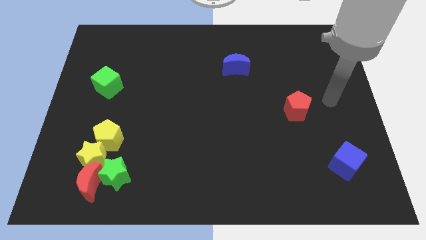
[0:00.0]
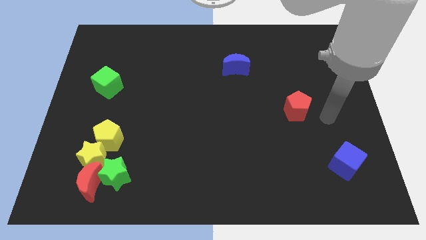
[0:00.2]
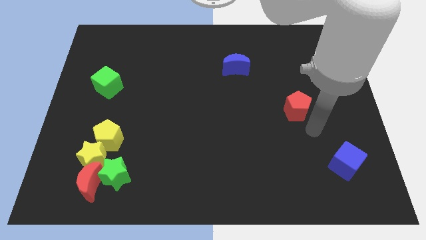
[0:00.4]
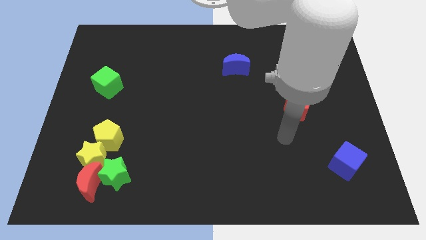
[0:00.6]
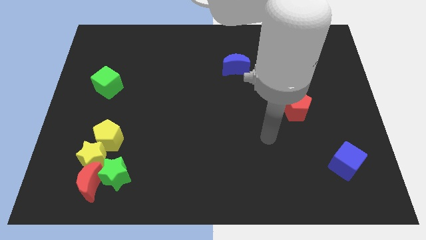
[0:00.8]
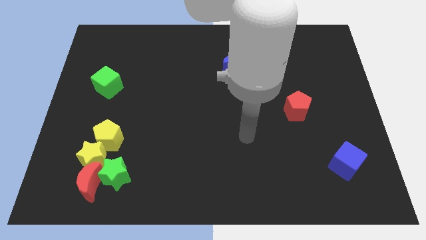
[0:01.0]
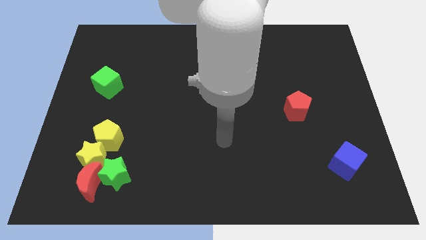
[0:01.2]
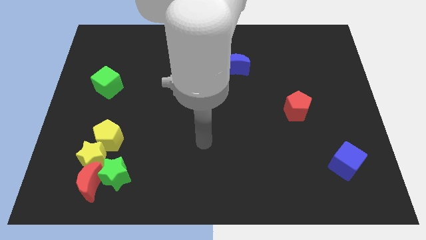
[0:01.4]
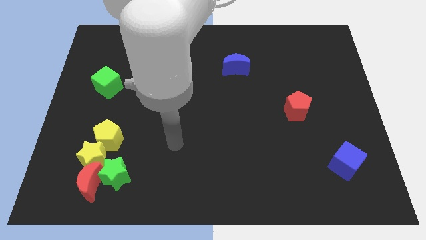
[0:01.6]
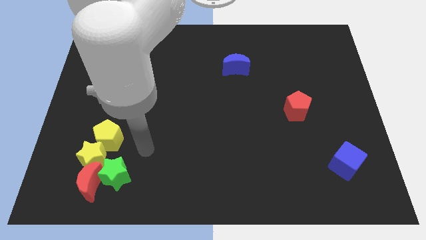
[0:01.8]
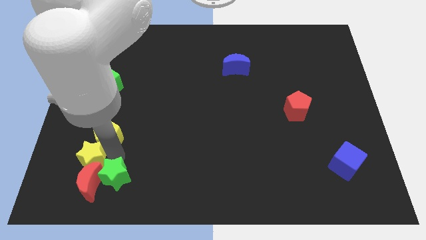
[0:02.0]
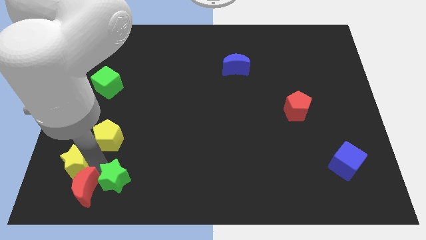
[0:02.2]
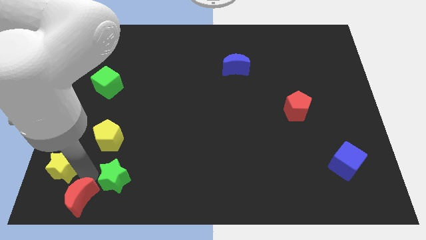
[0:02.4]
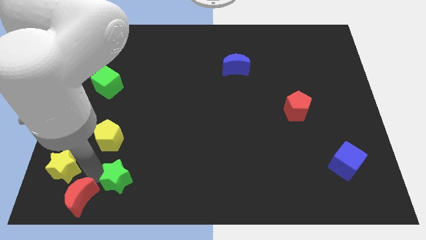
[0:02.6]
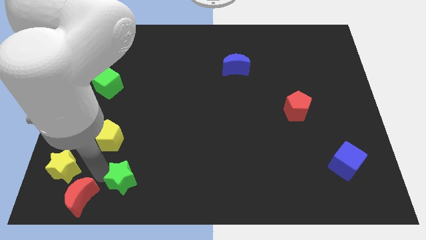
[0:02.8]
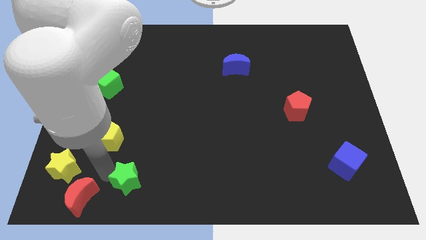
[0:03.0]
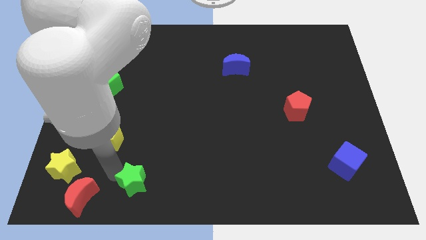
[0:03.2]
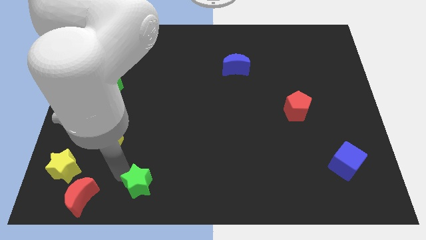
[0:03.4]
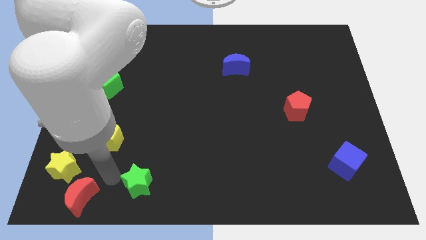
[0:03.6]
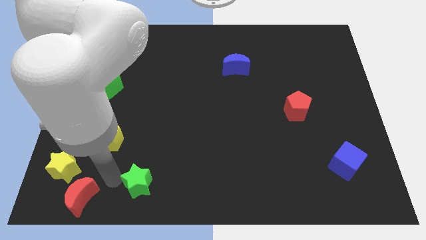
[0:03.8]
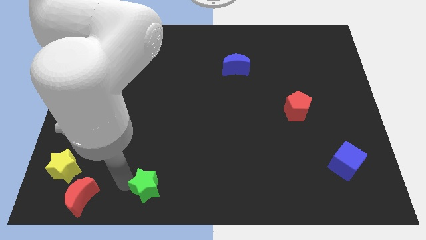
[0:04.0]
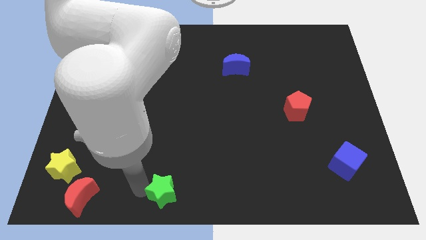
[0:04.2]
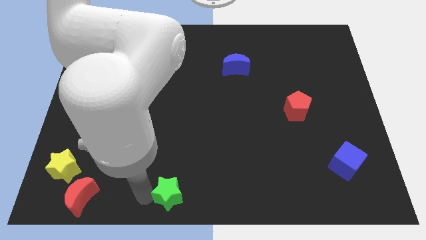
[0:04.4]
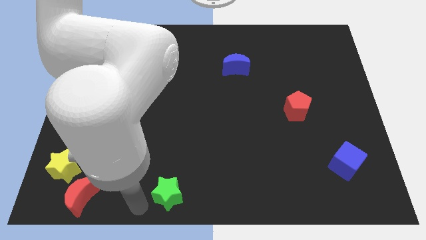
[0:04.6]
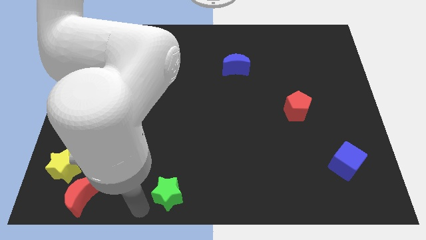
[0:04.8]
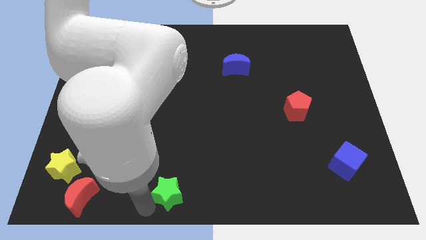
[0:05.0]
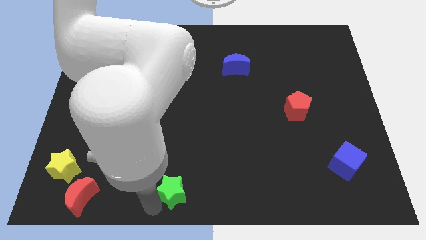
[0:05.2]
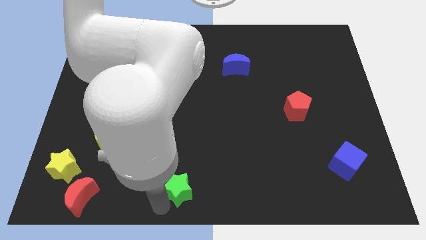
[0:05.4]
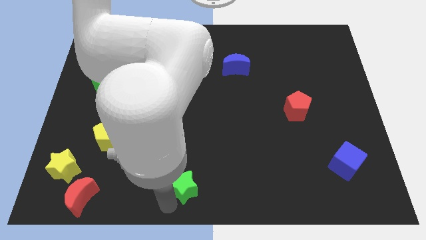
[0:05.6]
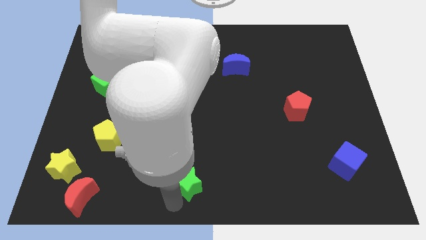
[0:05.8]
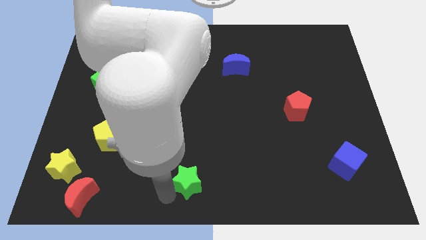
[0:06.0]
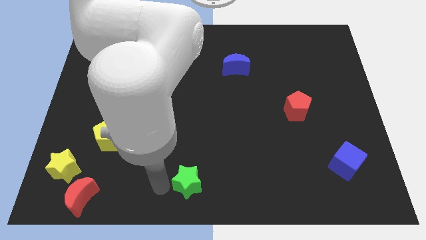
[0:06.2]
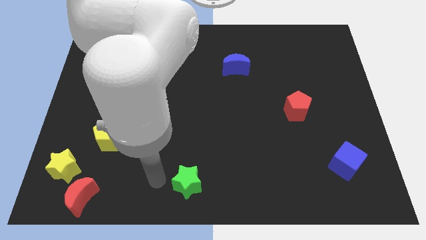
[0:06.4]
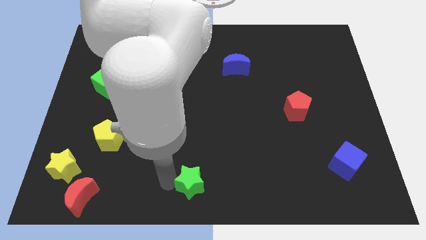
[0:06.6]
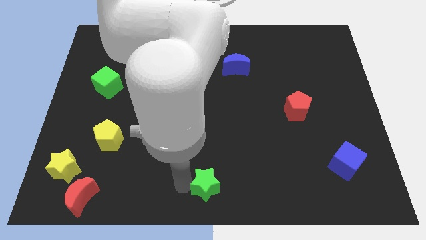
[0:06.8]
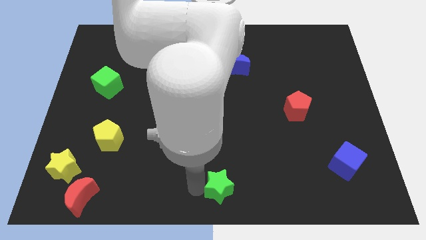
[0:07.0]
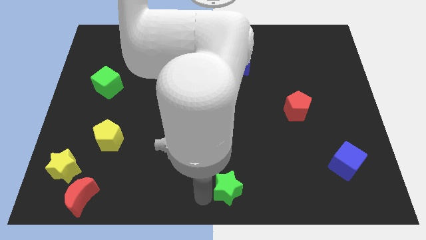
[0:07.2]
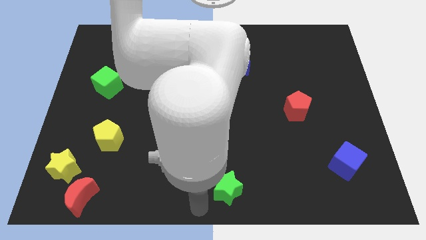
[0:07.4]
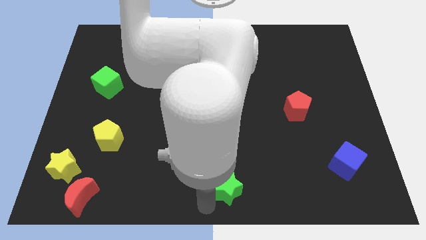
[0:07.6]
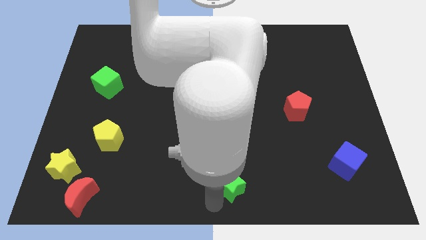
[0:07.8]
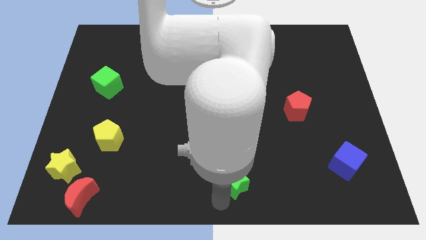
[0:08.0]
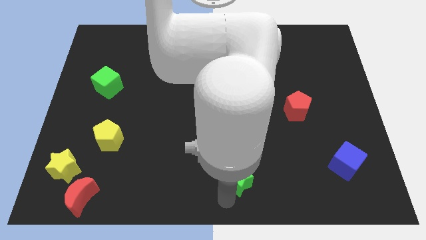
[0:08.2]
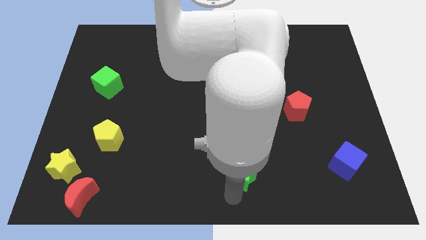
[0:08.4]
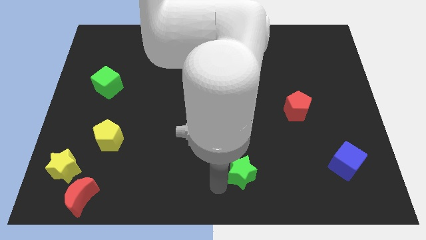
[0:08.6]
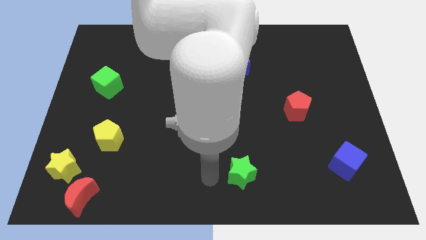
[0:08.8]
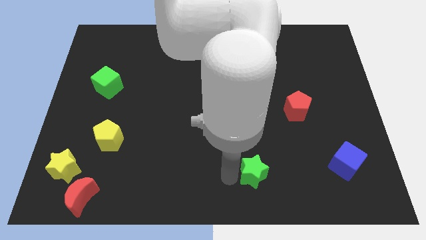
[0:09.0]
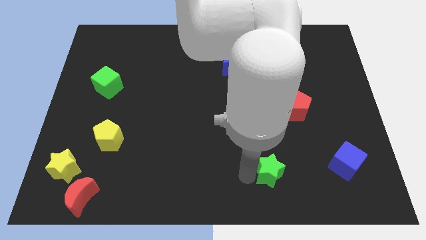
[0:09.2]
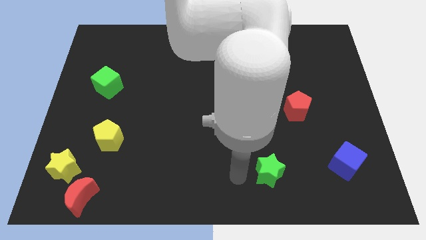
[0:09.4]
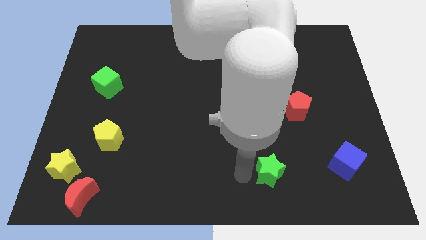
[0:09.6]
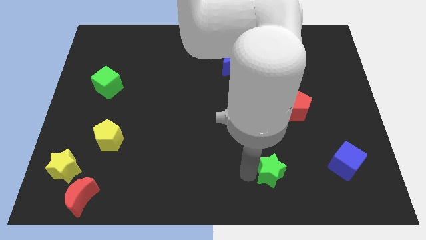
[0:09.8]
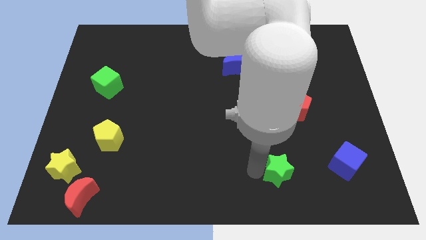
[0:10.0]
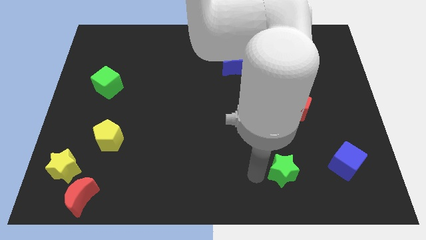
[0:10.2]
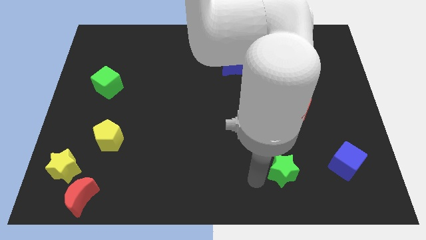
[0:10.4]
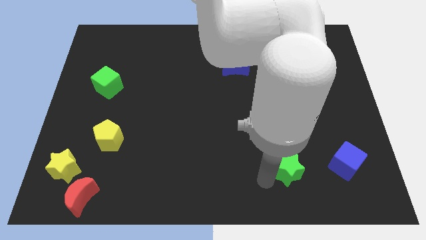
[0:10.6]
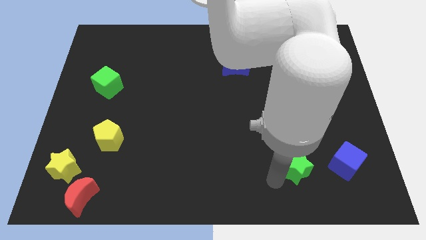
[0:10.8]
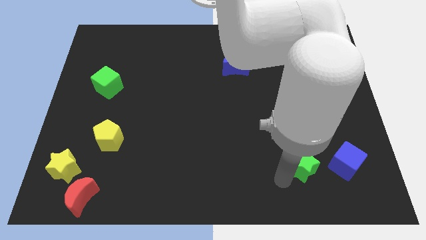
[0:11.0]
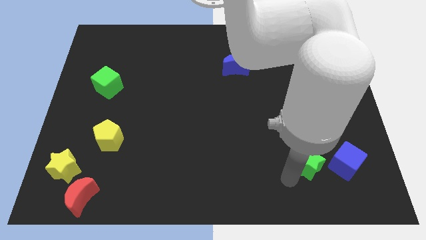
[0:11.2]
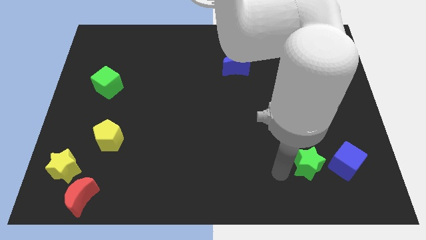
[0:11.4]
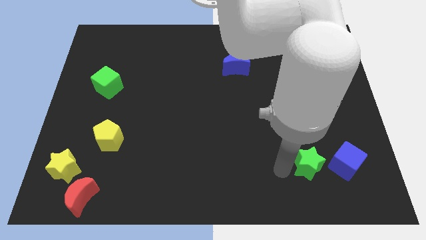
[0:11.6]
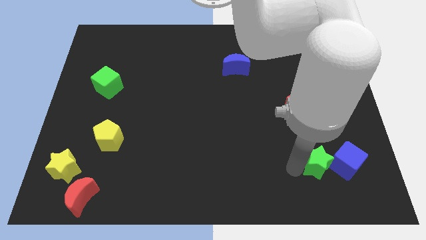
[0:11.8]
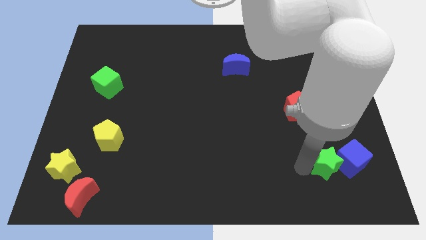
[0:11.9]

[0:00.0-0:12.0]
move the green star next to the blue cube

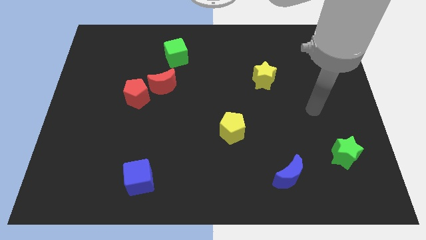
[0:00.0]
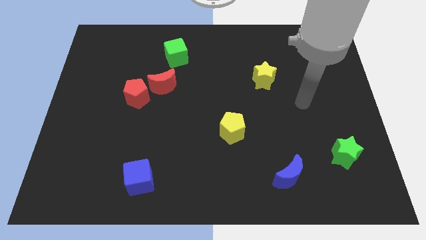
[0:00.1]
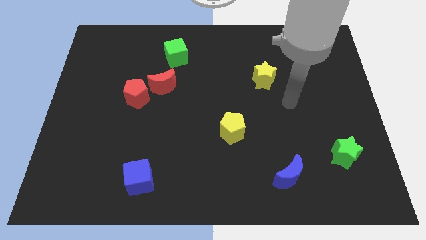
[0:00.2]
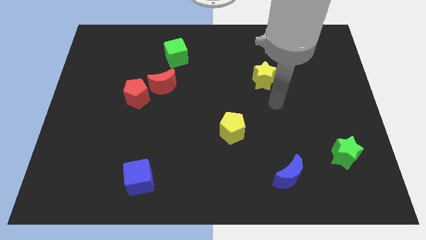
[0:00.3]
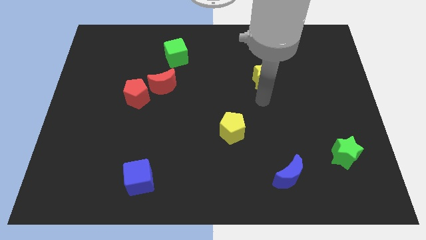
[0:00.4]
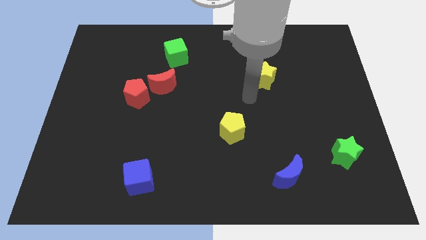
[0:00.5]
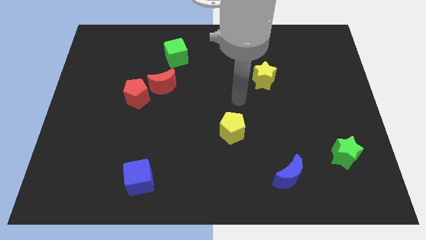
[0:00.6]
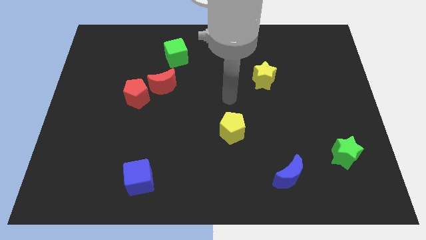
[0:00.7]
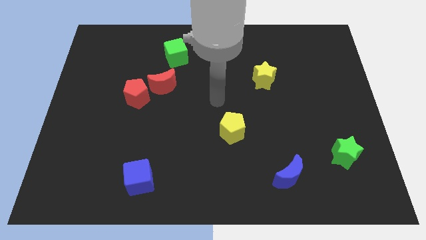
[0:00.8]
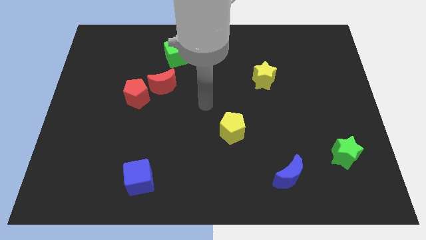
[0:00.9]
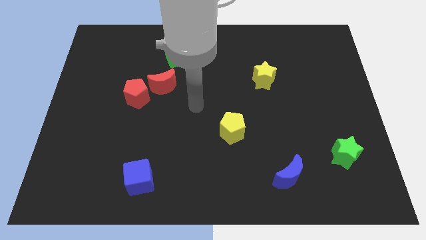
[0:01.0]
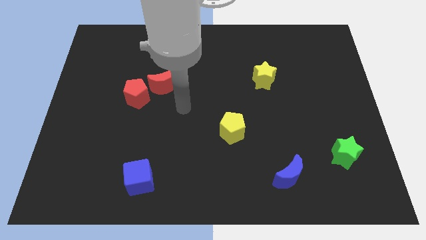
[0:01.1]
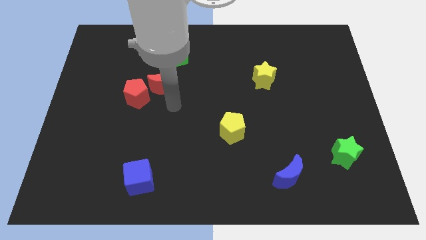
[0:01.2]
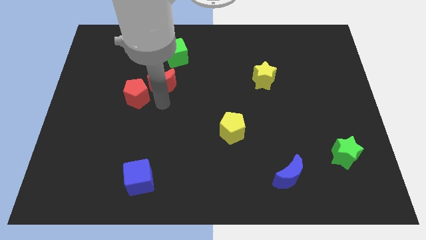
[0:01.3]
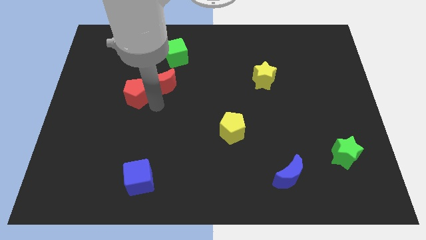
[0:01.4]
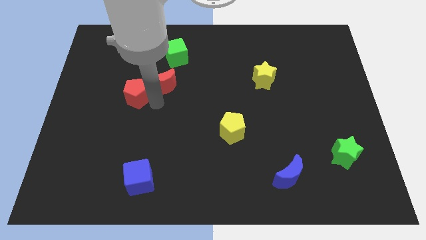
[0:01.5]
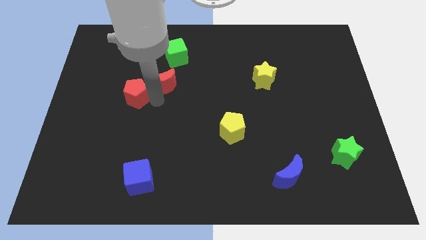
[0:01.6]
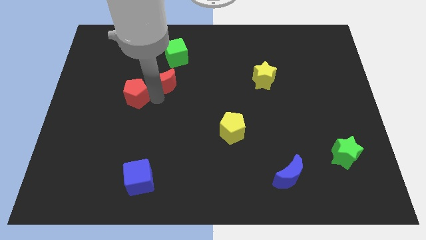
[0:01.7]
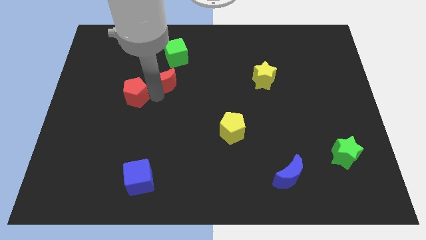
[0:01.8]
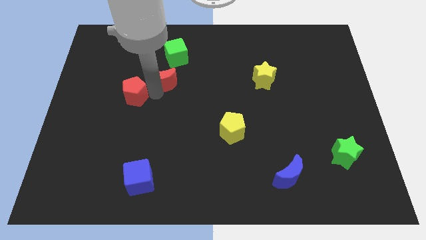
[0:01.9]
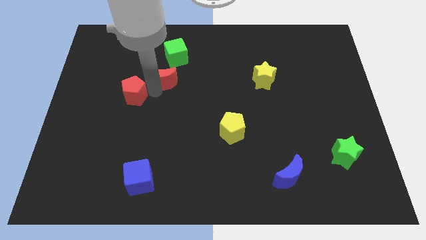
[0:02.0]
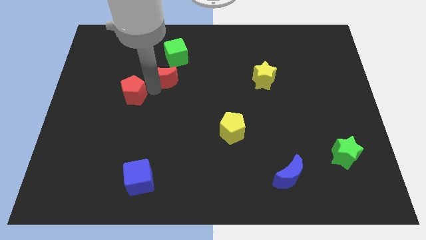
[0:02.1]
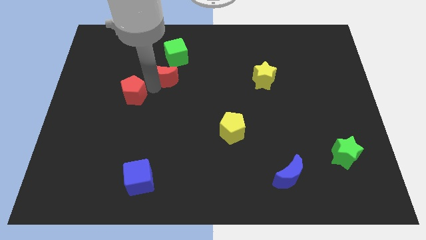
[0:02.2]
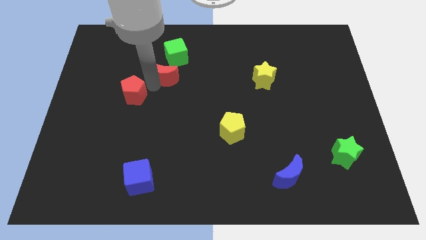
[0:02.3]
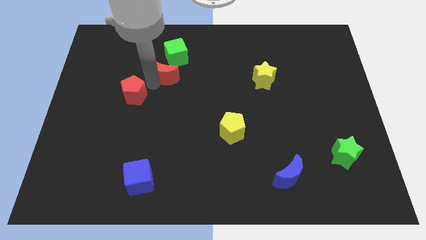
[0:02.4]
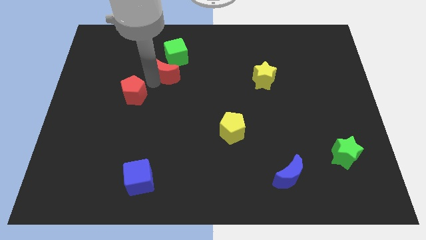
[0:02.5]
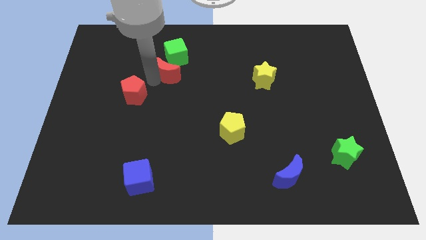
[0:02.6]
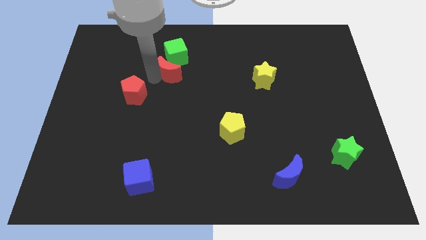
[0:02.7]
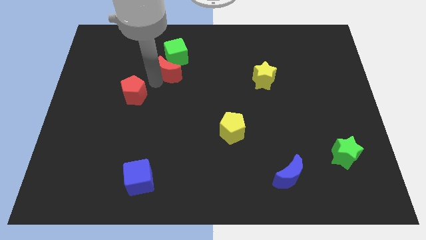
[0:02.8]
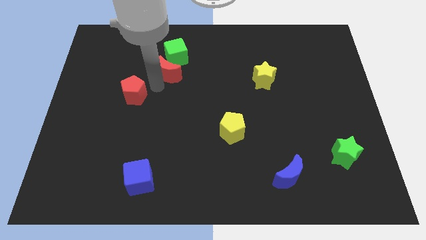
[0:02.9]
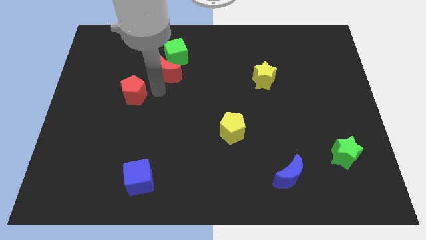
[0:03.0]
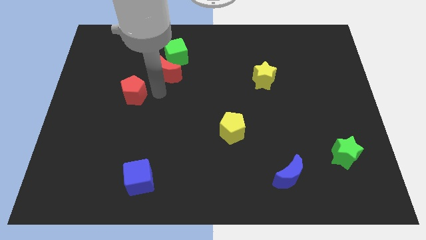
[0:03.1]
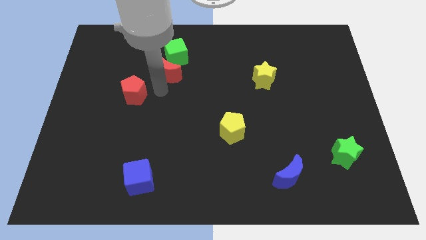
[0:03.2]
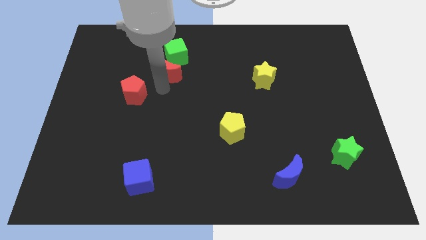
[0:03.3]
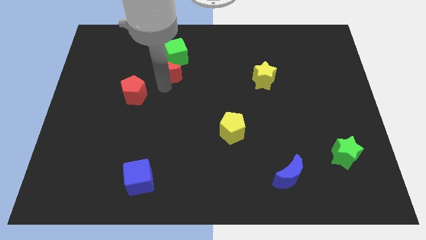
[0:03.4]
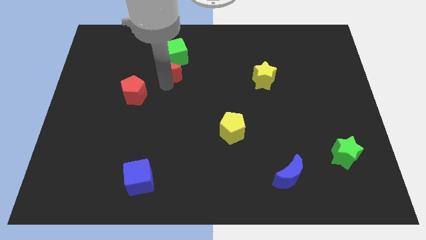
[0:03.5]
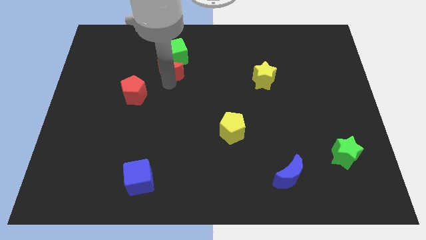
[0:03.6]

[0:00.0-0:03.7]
slide the red moon towards the green cube
